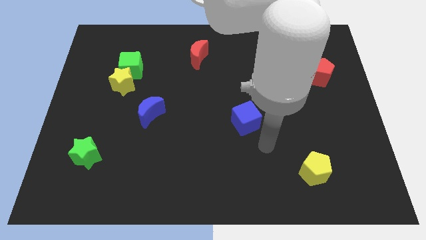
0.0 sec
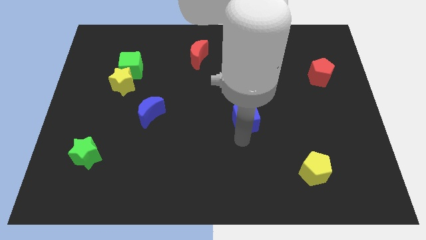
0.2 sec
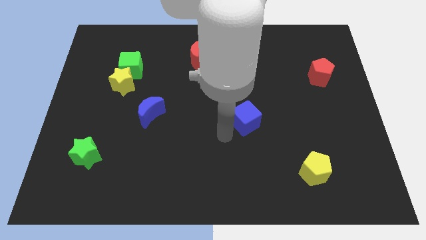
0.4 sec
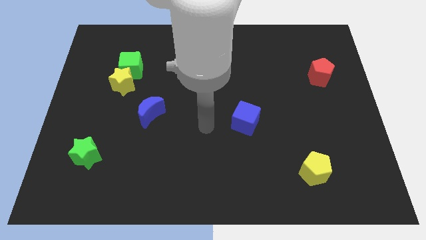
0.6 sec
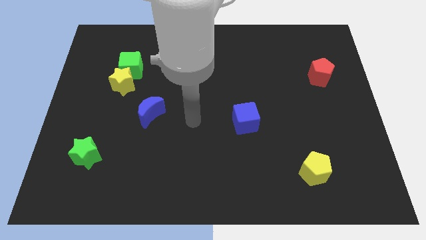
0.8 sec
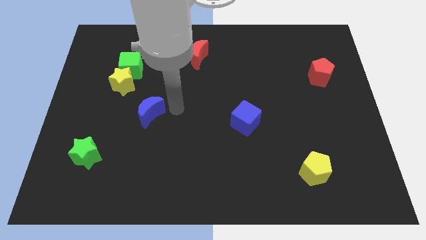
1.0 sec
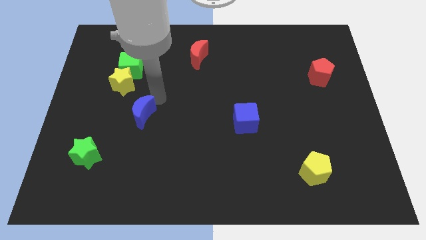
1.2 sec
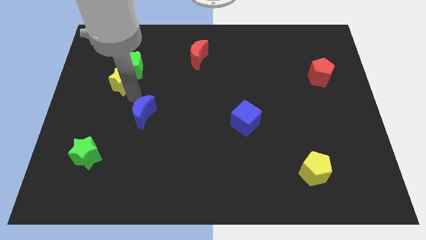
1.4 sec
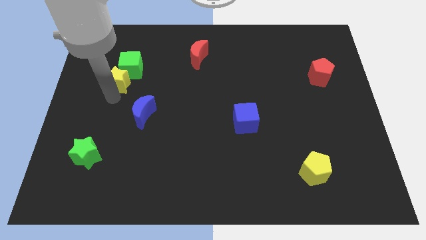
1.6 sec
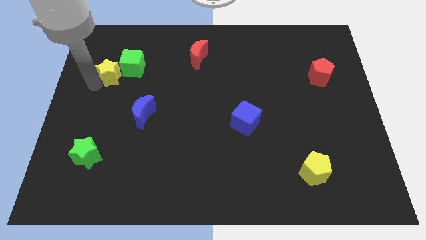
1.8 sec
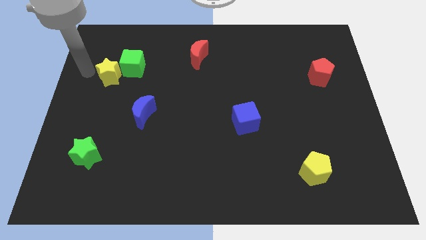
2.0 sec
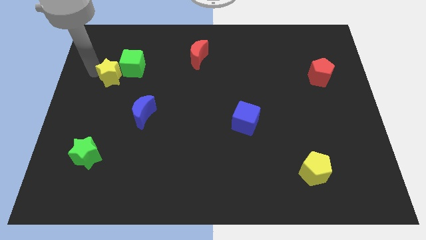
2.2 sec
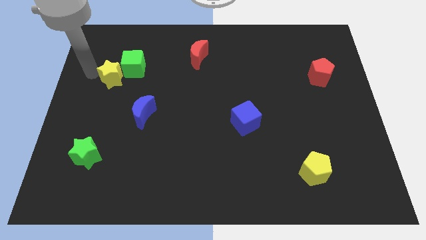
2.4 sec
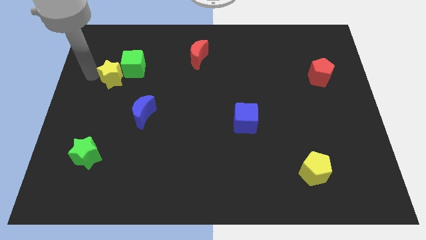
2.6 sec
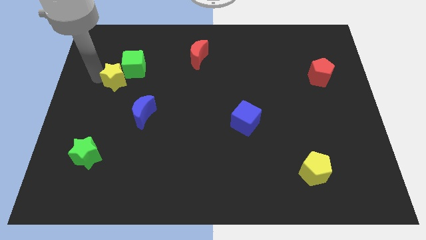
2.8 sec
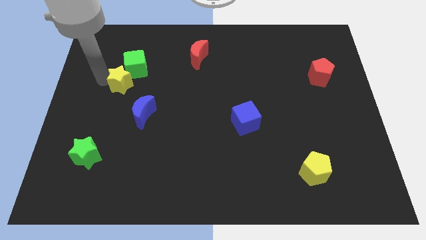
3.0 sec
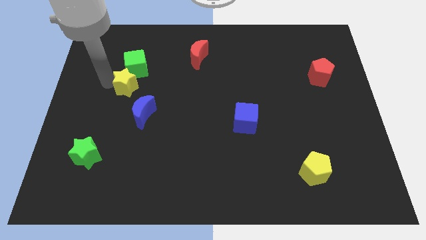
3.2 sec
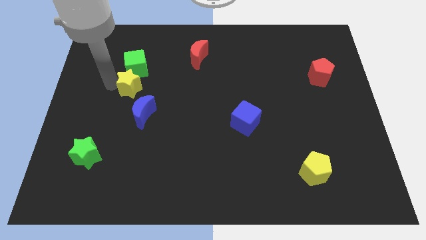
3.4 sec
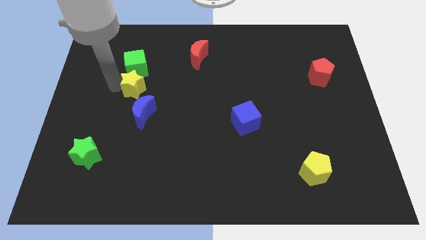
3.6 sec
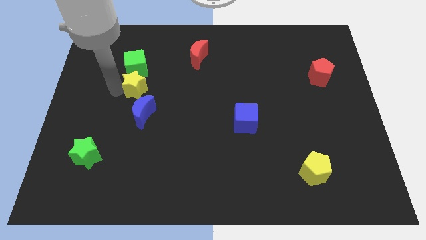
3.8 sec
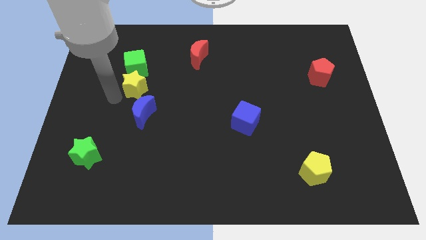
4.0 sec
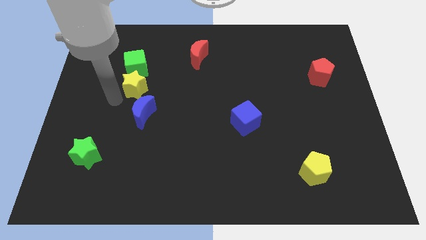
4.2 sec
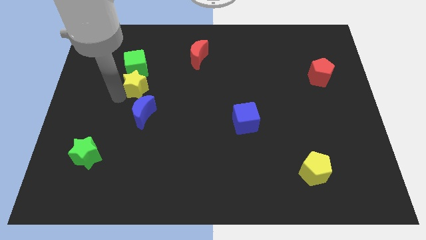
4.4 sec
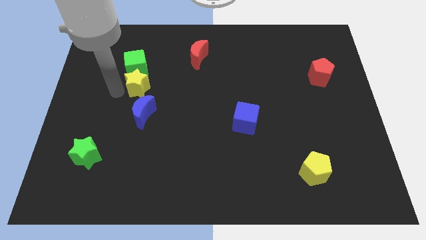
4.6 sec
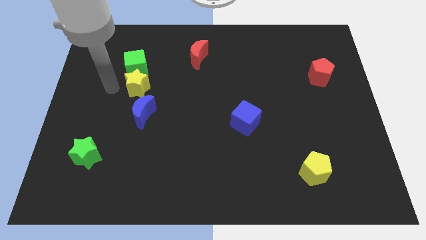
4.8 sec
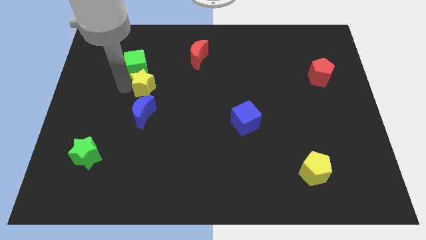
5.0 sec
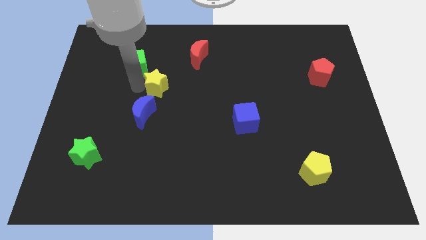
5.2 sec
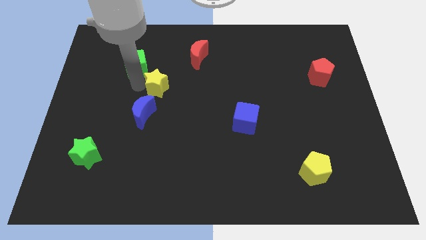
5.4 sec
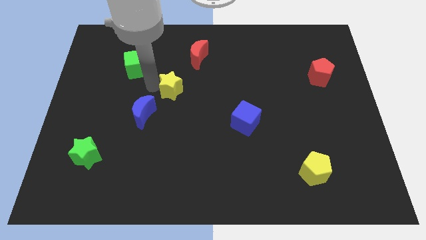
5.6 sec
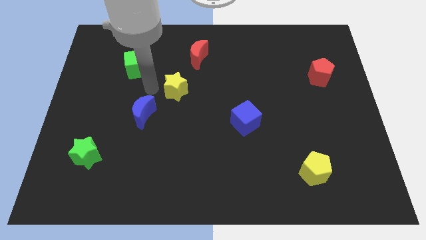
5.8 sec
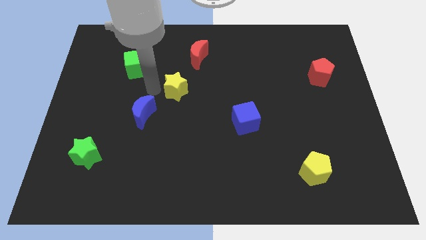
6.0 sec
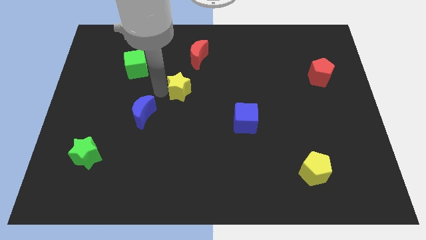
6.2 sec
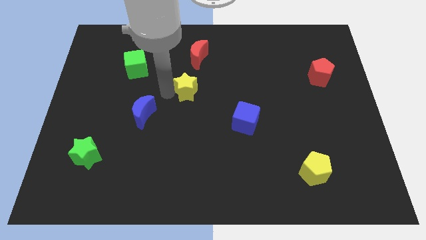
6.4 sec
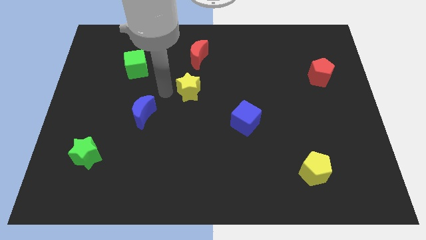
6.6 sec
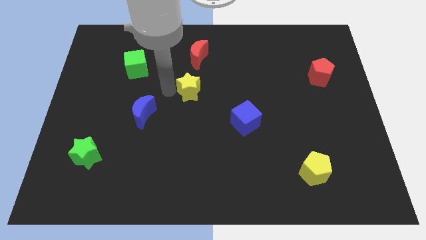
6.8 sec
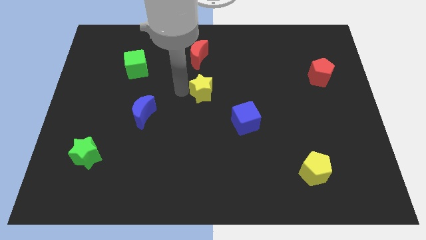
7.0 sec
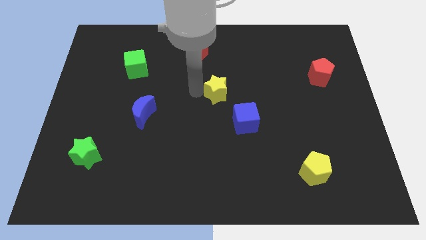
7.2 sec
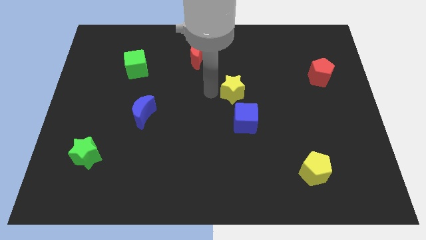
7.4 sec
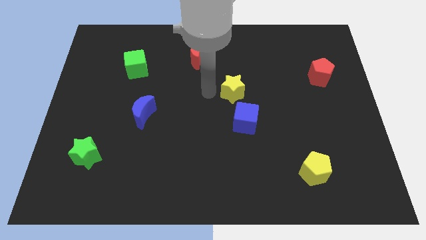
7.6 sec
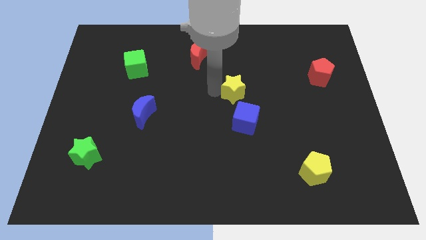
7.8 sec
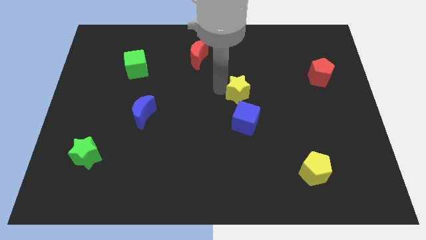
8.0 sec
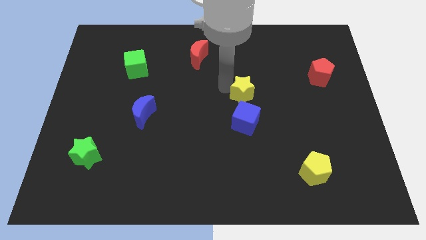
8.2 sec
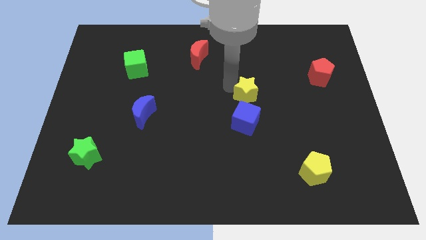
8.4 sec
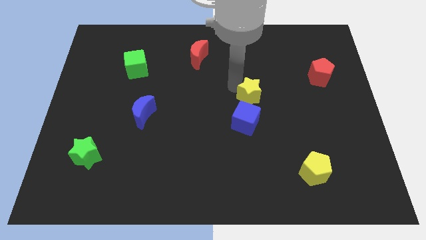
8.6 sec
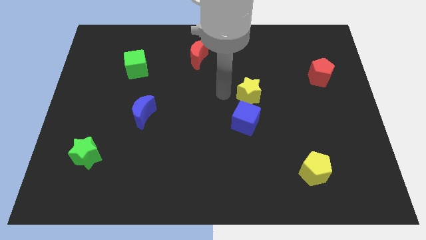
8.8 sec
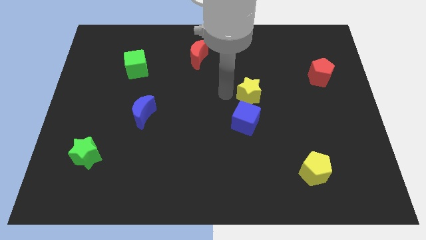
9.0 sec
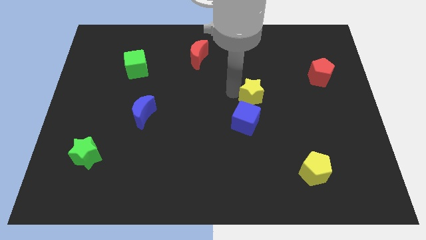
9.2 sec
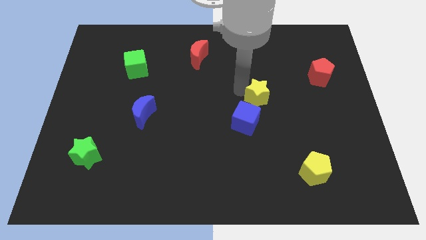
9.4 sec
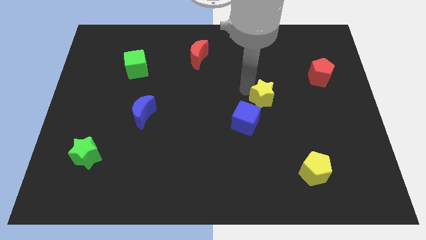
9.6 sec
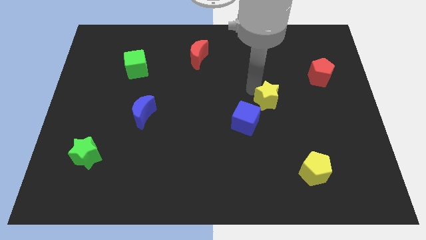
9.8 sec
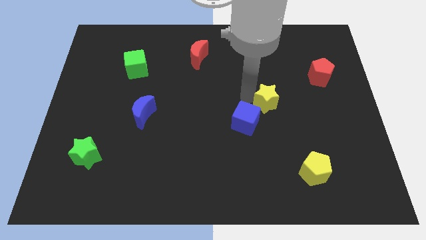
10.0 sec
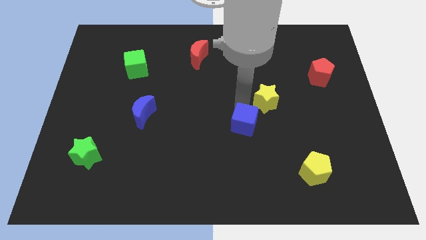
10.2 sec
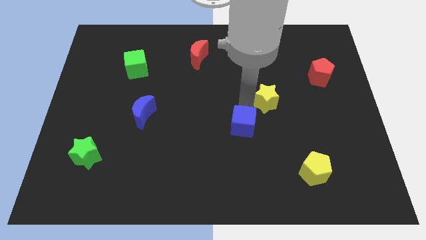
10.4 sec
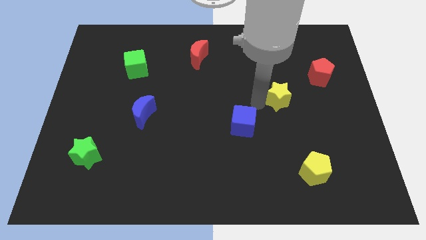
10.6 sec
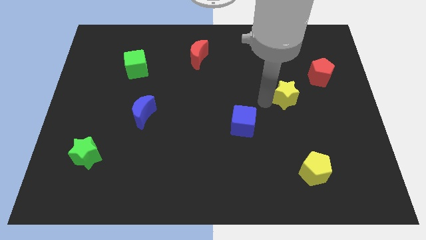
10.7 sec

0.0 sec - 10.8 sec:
push the yellow star diagonally down and to the left of the red pentagon

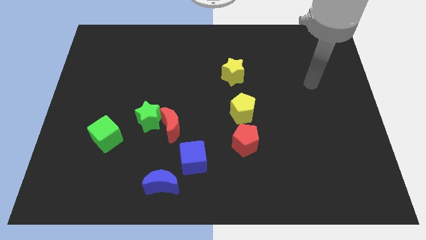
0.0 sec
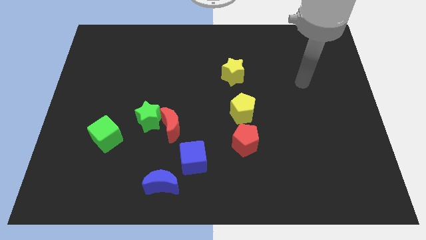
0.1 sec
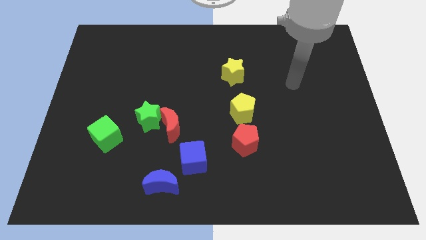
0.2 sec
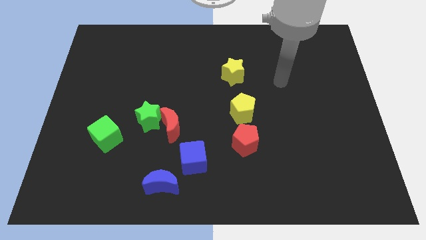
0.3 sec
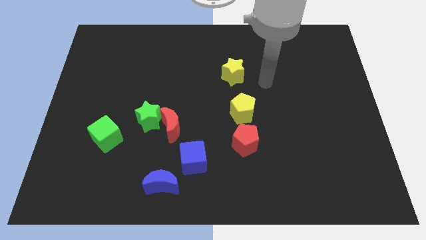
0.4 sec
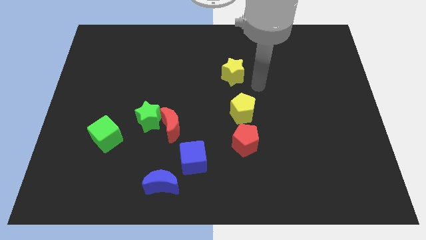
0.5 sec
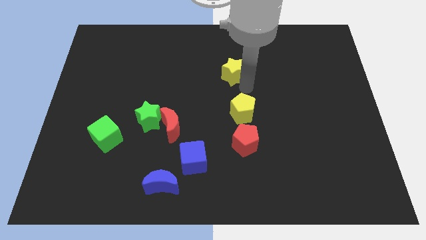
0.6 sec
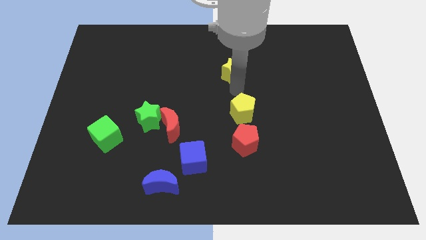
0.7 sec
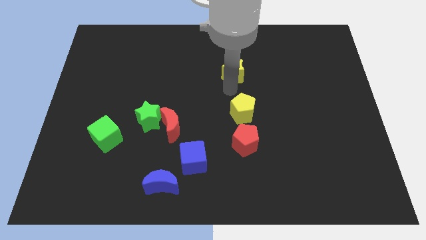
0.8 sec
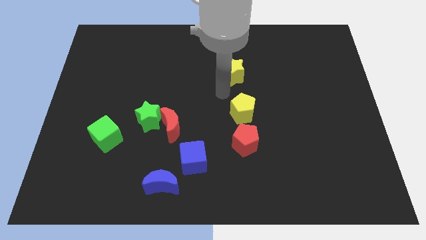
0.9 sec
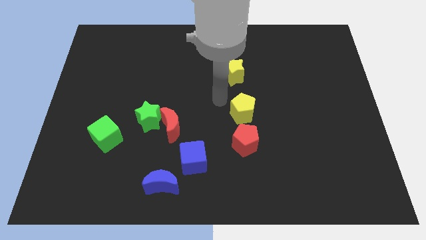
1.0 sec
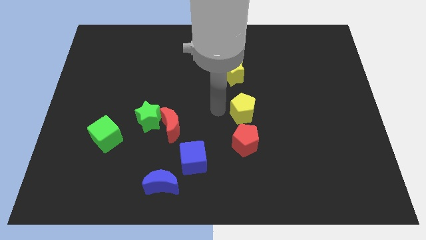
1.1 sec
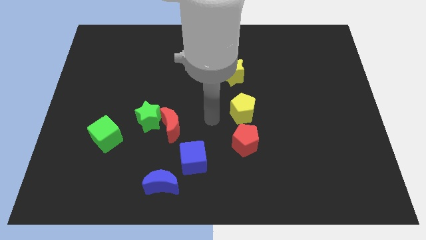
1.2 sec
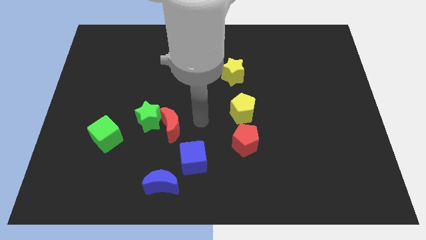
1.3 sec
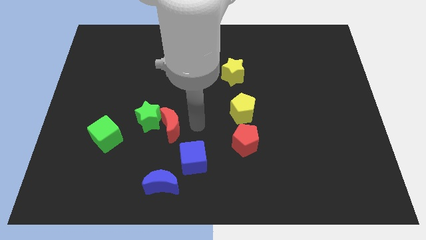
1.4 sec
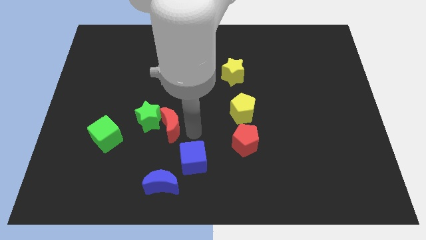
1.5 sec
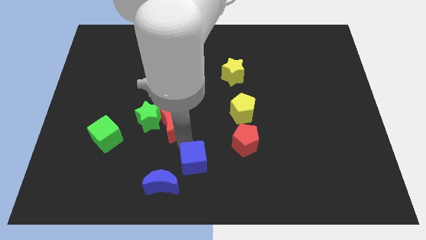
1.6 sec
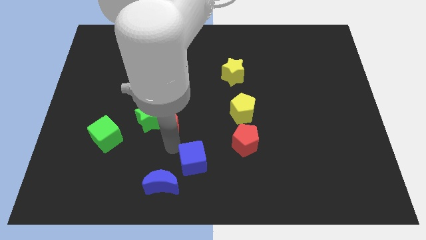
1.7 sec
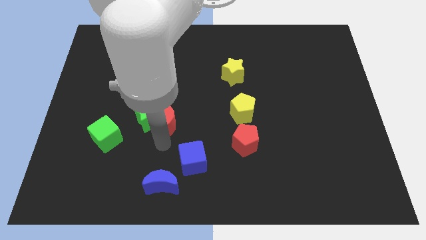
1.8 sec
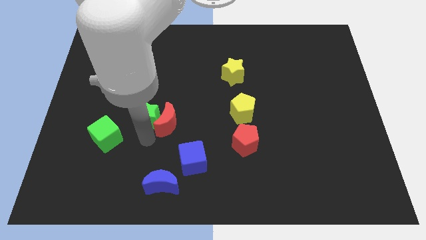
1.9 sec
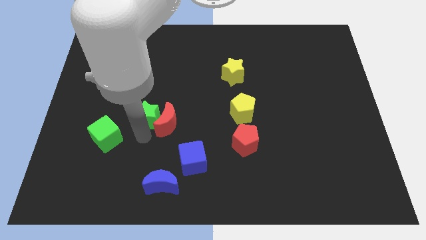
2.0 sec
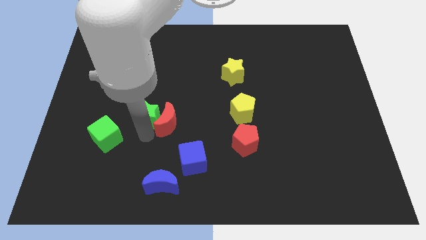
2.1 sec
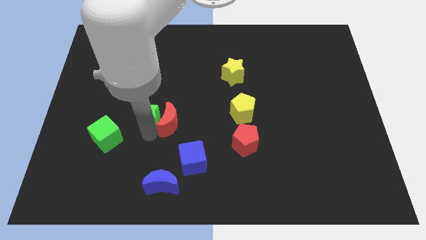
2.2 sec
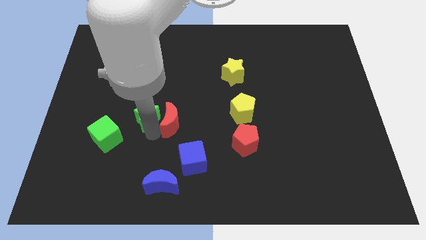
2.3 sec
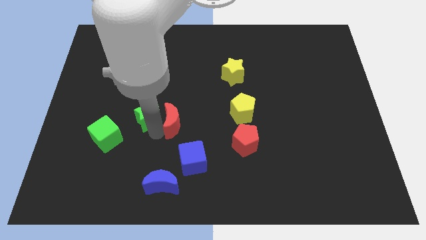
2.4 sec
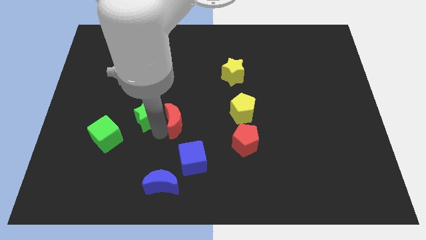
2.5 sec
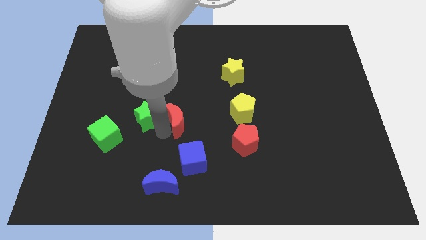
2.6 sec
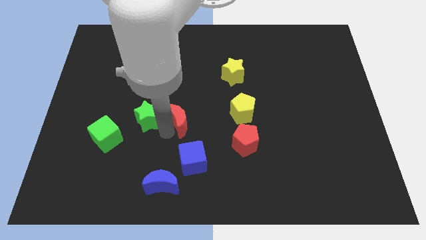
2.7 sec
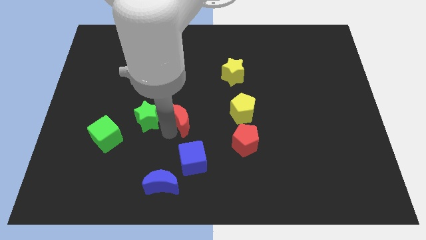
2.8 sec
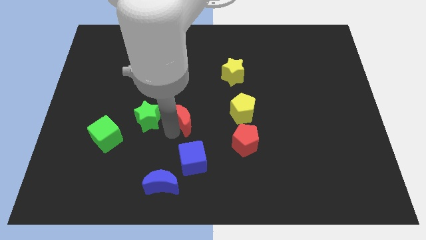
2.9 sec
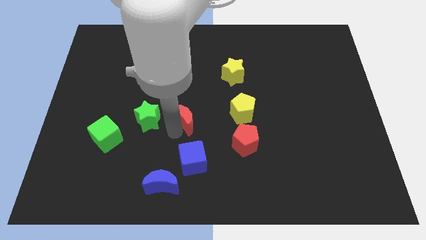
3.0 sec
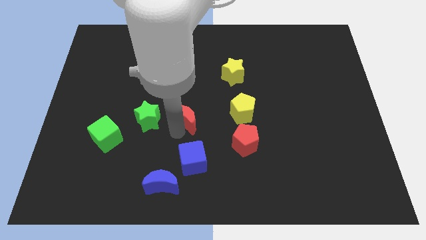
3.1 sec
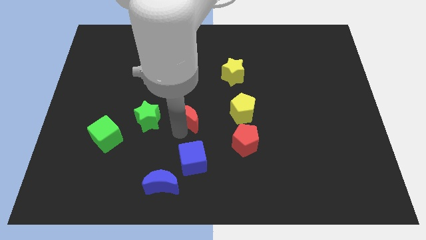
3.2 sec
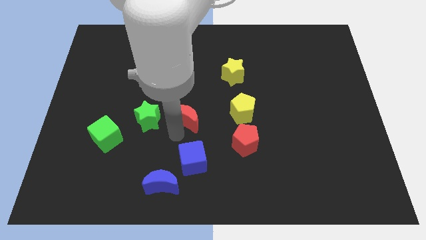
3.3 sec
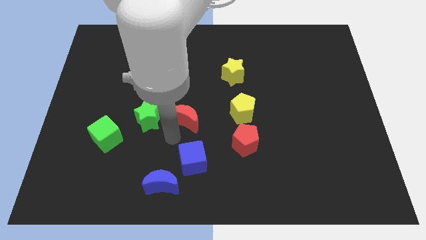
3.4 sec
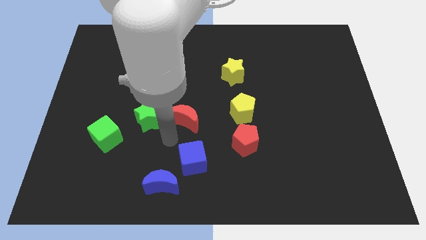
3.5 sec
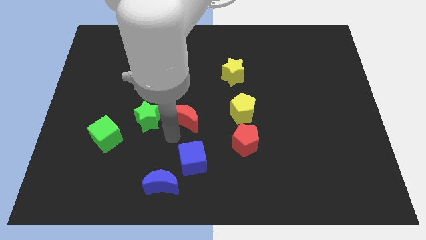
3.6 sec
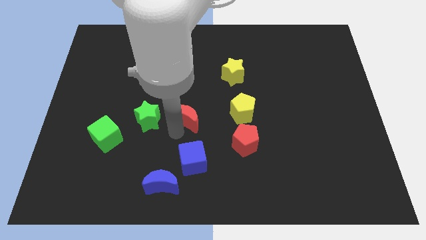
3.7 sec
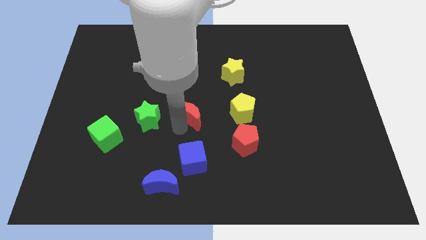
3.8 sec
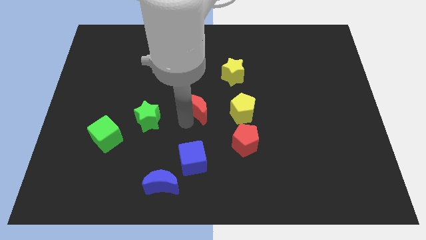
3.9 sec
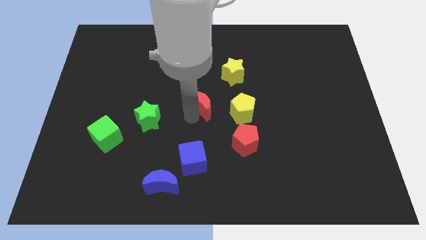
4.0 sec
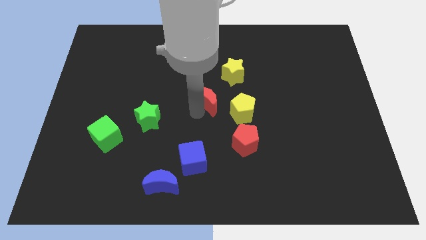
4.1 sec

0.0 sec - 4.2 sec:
slide the red moon to the bottom left side of the yellow star
